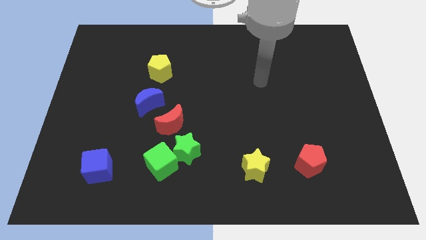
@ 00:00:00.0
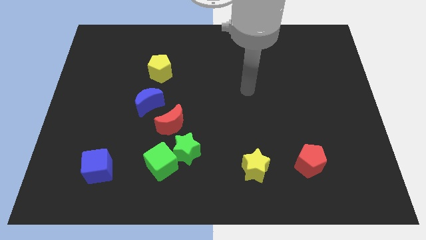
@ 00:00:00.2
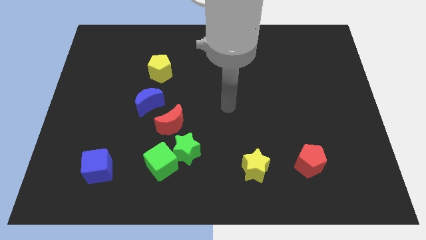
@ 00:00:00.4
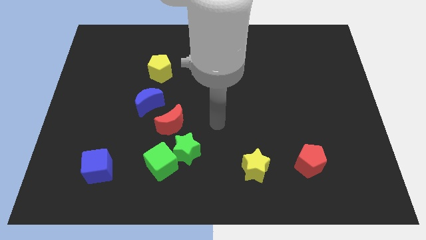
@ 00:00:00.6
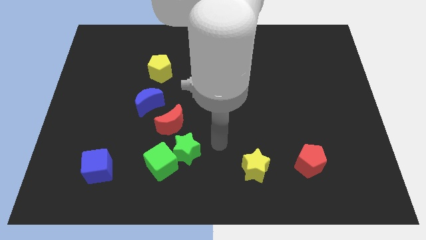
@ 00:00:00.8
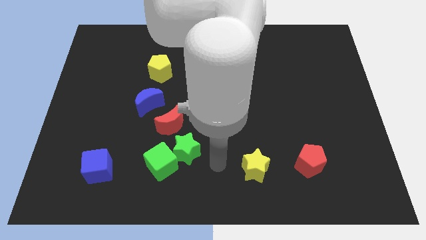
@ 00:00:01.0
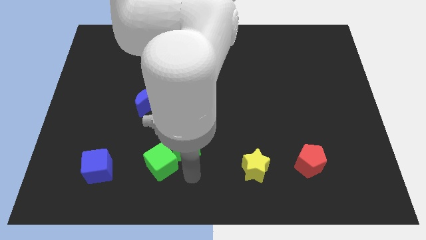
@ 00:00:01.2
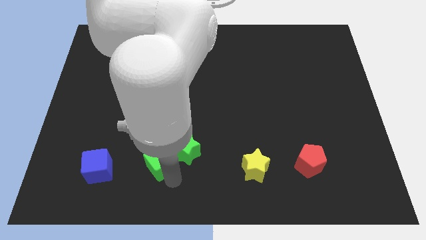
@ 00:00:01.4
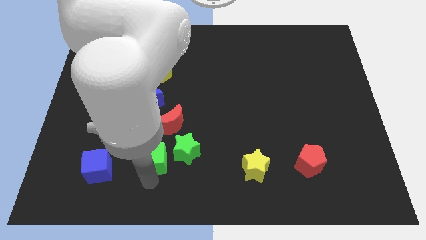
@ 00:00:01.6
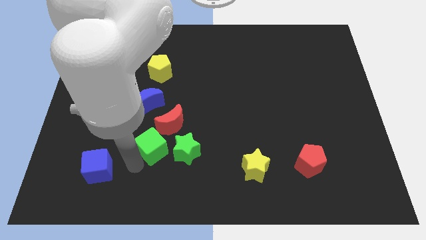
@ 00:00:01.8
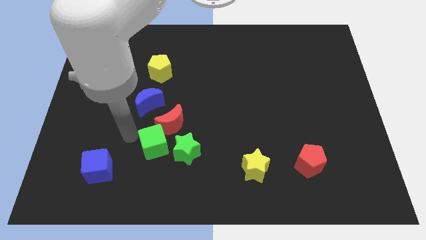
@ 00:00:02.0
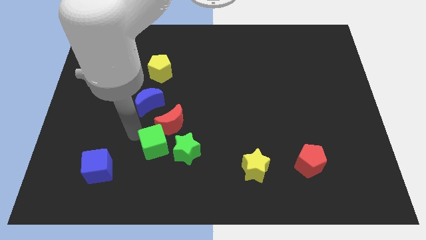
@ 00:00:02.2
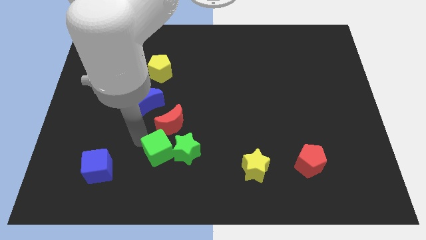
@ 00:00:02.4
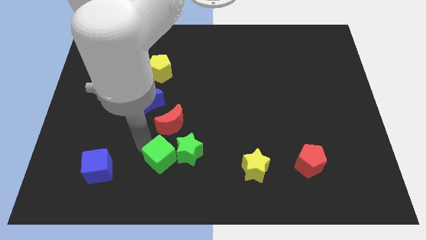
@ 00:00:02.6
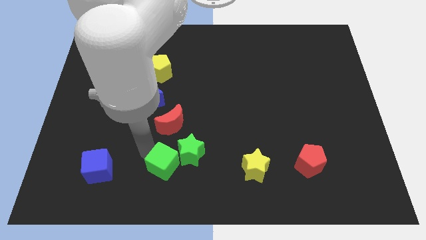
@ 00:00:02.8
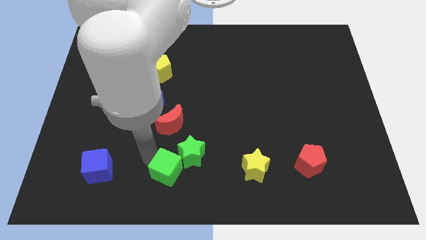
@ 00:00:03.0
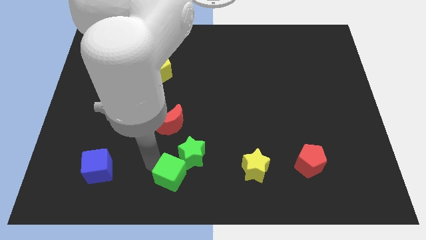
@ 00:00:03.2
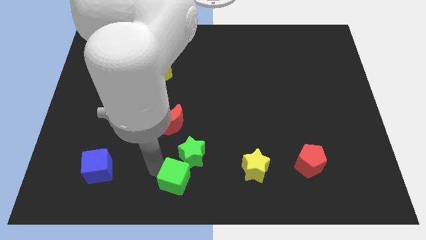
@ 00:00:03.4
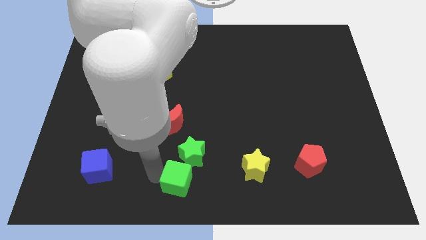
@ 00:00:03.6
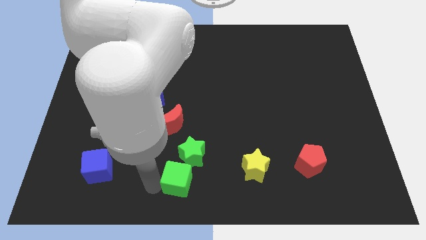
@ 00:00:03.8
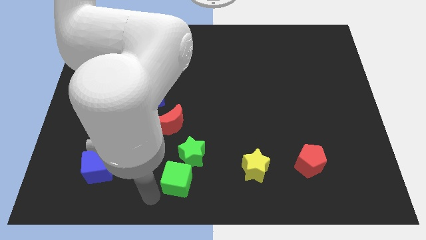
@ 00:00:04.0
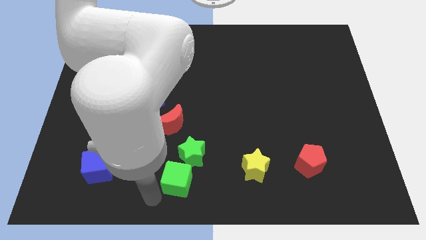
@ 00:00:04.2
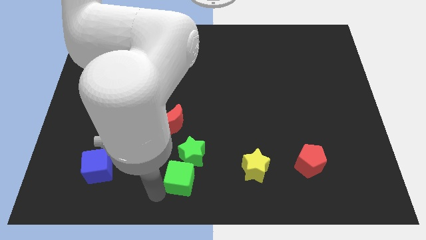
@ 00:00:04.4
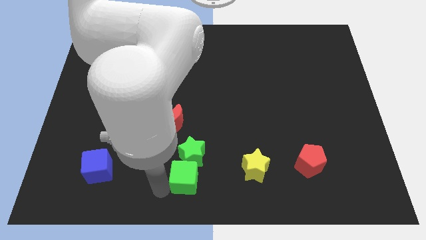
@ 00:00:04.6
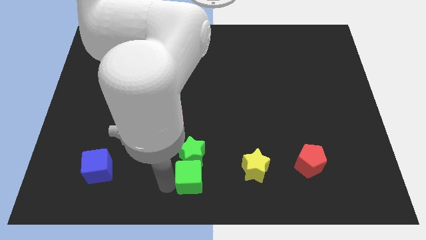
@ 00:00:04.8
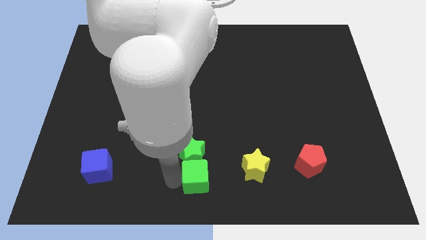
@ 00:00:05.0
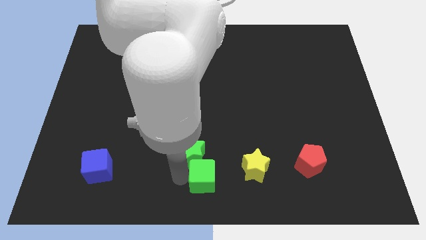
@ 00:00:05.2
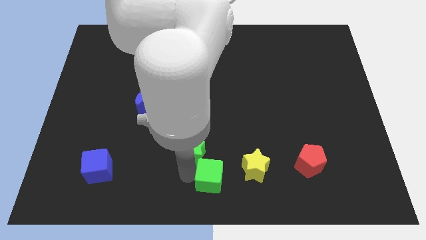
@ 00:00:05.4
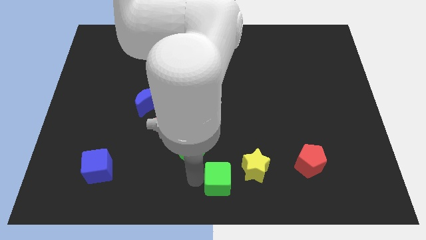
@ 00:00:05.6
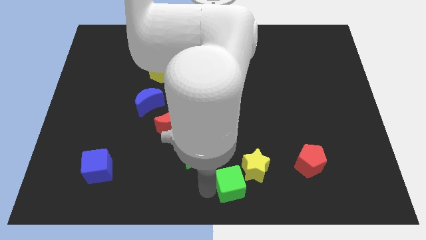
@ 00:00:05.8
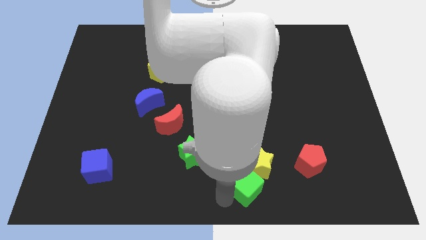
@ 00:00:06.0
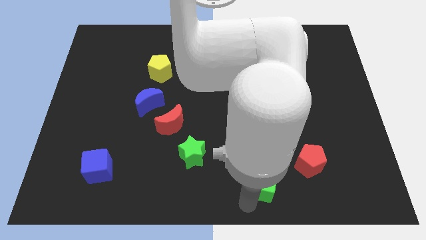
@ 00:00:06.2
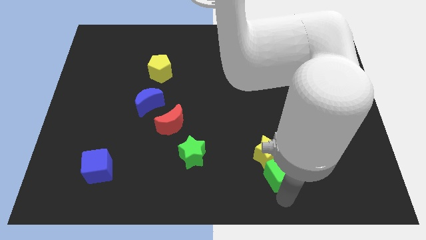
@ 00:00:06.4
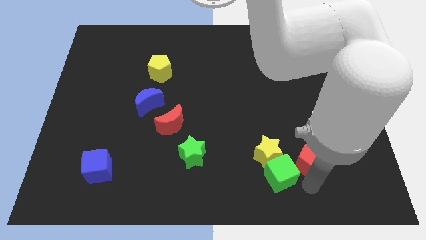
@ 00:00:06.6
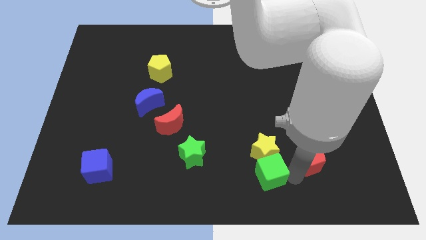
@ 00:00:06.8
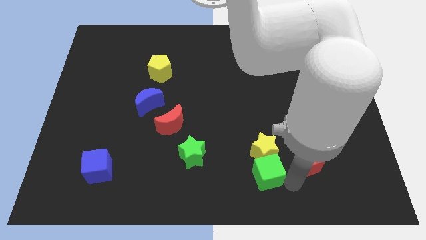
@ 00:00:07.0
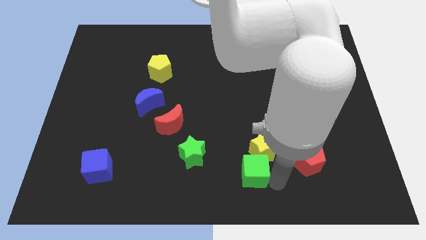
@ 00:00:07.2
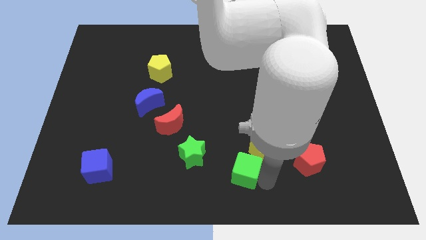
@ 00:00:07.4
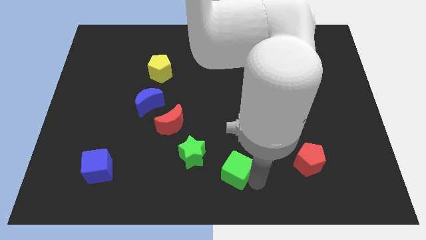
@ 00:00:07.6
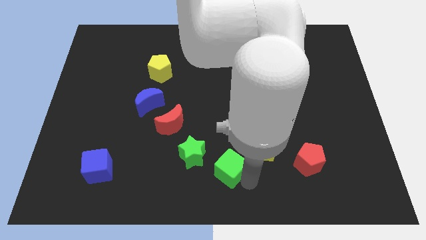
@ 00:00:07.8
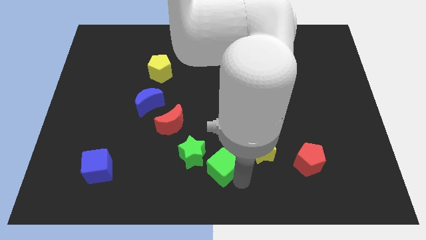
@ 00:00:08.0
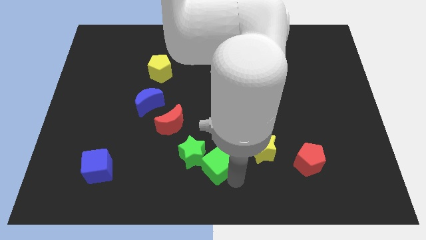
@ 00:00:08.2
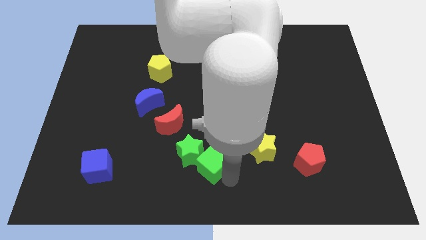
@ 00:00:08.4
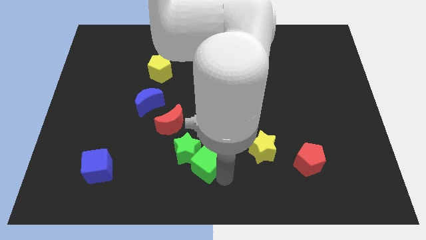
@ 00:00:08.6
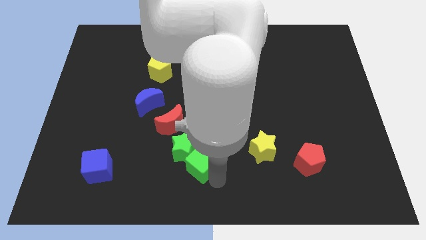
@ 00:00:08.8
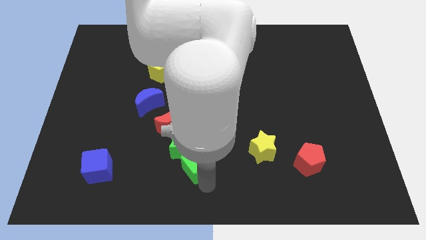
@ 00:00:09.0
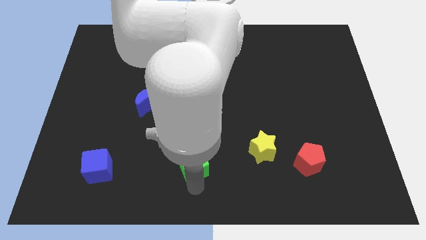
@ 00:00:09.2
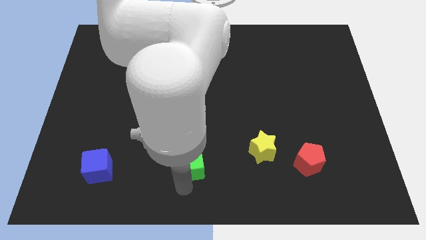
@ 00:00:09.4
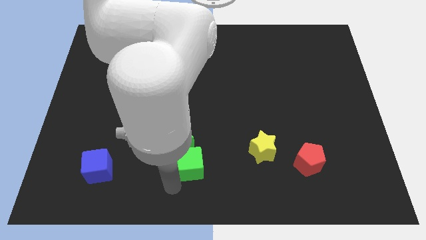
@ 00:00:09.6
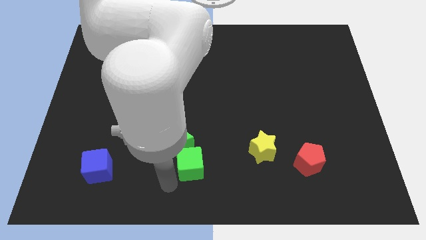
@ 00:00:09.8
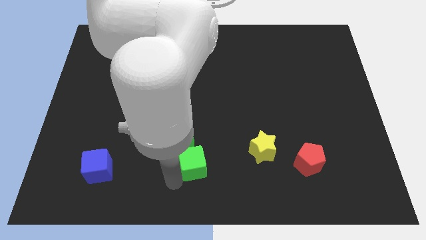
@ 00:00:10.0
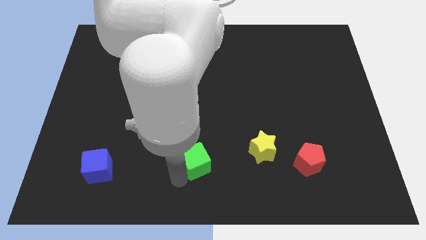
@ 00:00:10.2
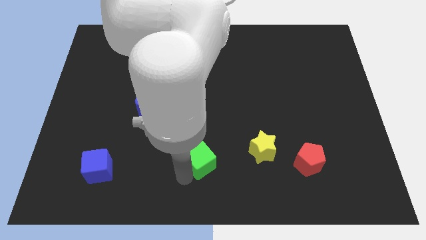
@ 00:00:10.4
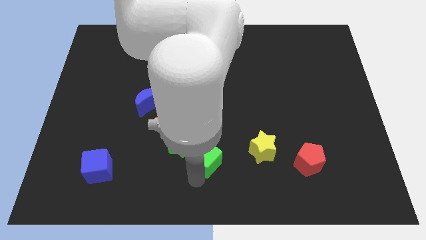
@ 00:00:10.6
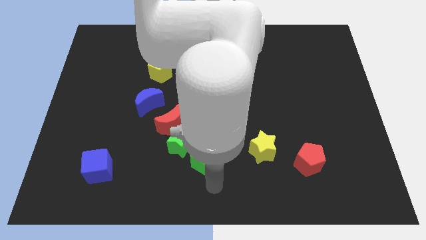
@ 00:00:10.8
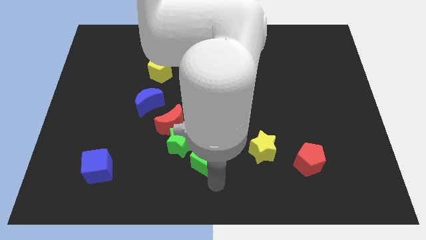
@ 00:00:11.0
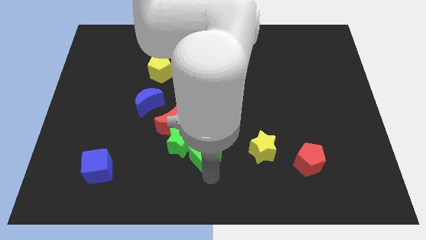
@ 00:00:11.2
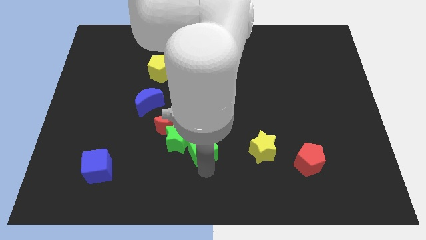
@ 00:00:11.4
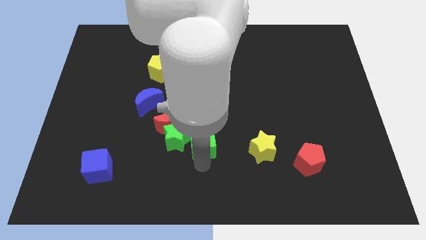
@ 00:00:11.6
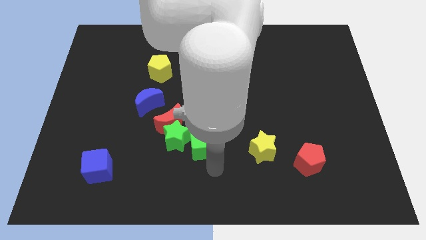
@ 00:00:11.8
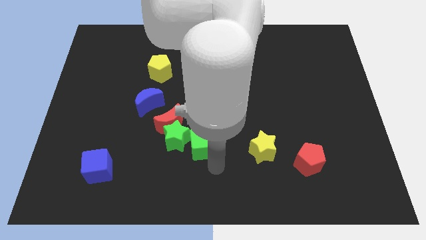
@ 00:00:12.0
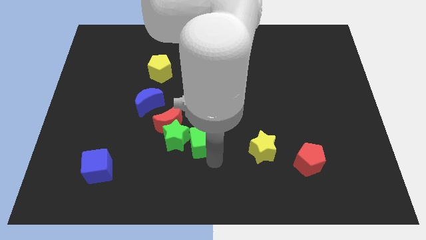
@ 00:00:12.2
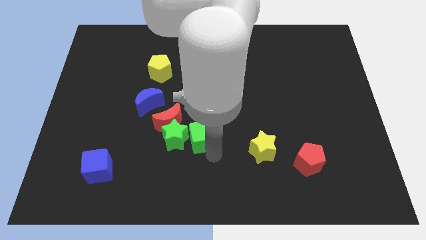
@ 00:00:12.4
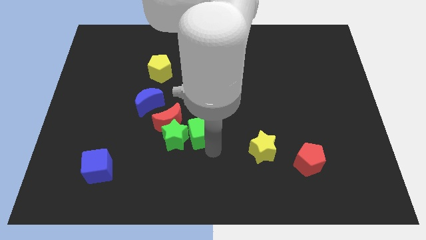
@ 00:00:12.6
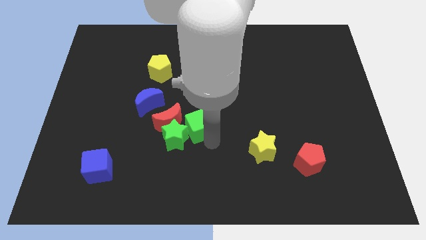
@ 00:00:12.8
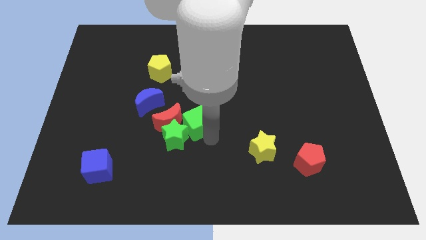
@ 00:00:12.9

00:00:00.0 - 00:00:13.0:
slide the green cube to the top side of the green star

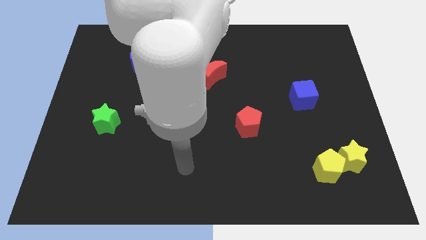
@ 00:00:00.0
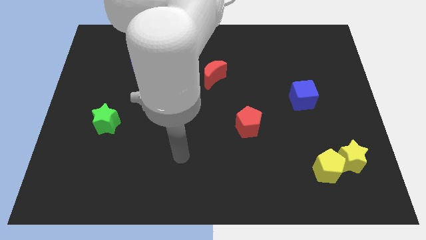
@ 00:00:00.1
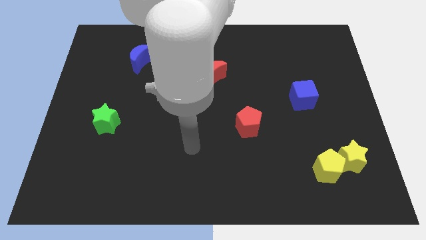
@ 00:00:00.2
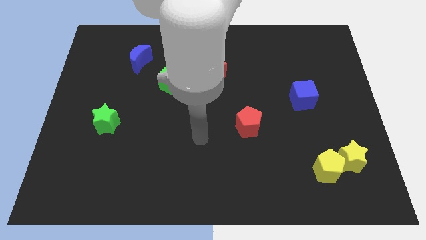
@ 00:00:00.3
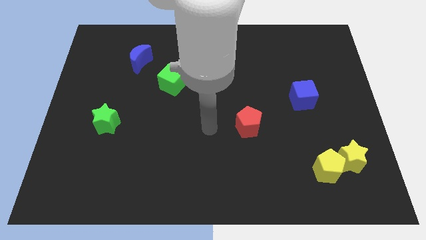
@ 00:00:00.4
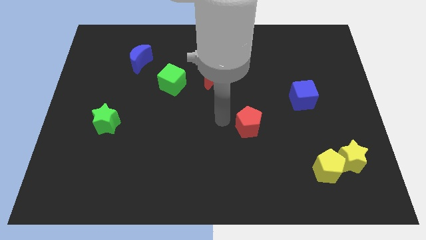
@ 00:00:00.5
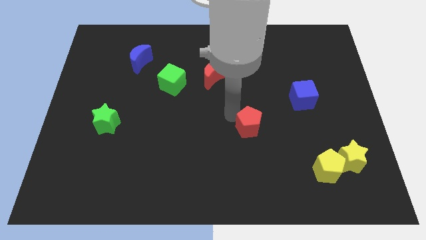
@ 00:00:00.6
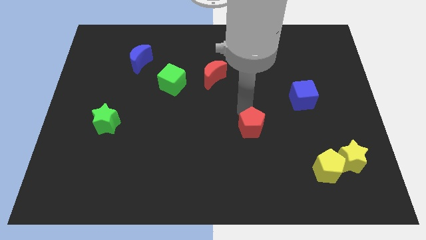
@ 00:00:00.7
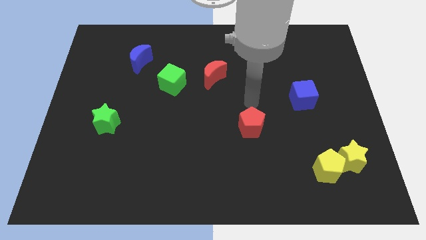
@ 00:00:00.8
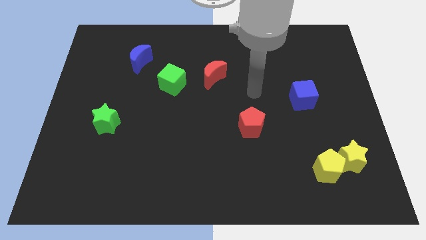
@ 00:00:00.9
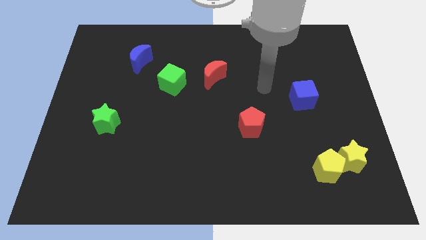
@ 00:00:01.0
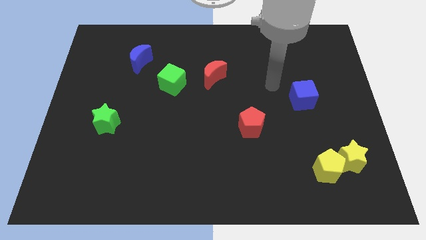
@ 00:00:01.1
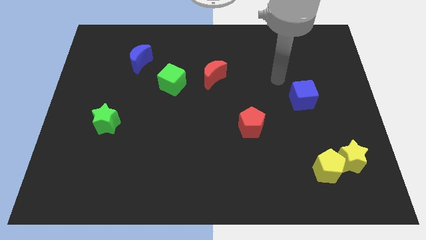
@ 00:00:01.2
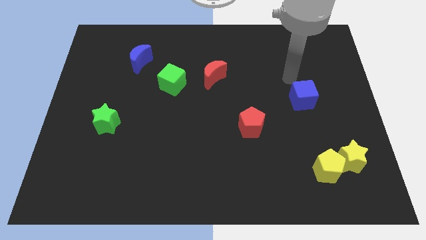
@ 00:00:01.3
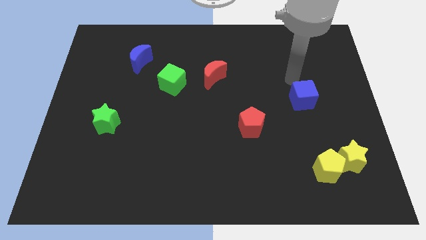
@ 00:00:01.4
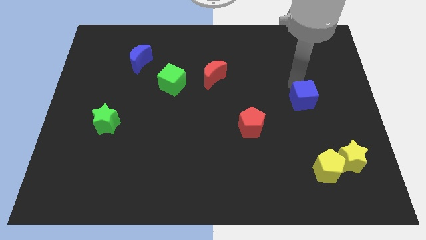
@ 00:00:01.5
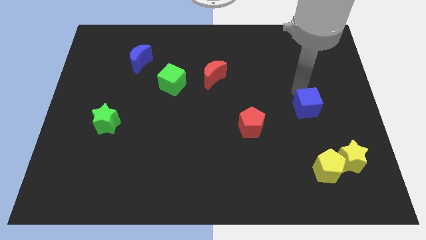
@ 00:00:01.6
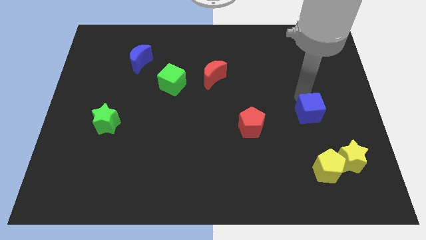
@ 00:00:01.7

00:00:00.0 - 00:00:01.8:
slide the blue cube to the top of the yellow pentagon
